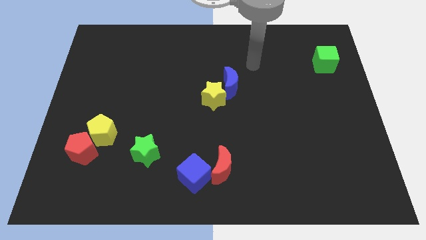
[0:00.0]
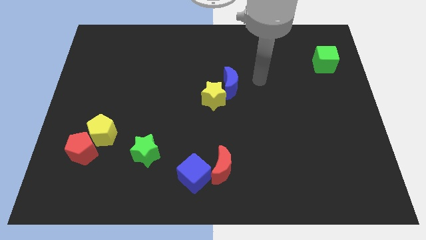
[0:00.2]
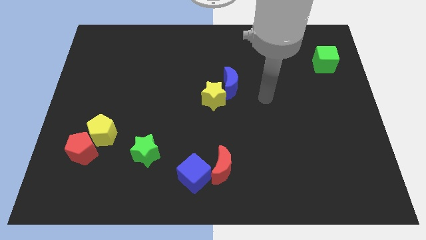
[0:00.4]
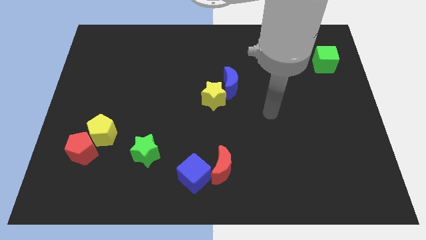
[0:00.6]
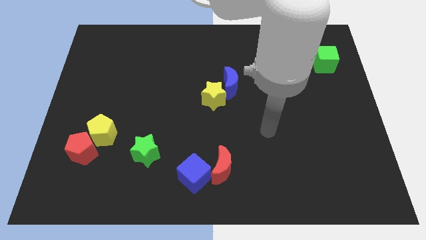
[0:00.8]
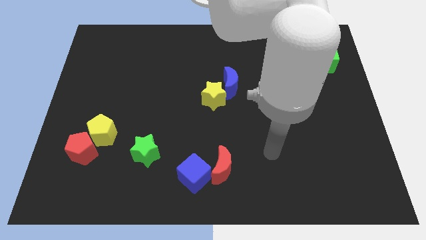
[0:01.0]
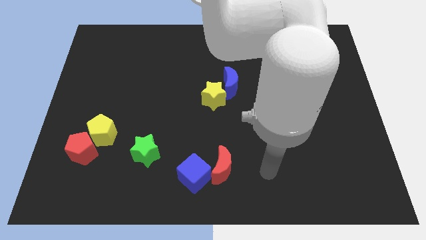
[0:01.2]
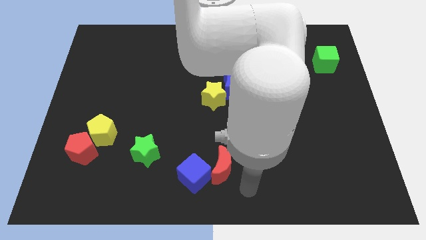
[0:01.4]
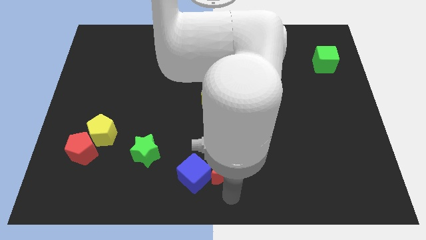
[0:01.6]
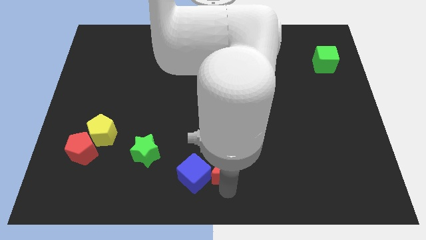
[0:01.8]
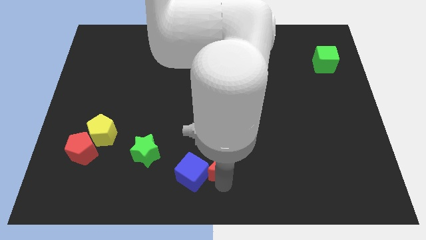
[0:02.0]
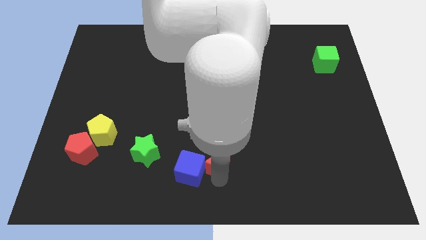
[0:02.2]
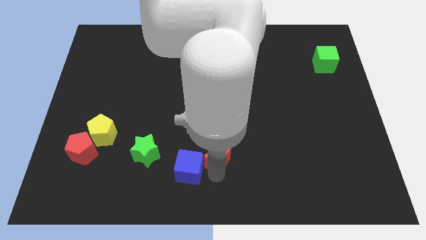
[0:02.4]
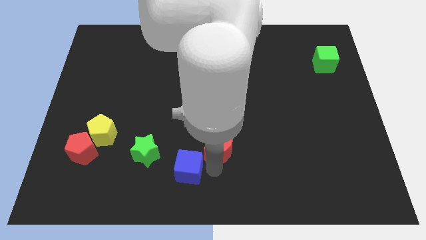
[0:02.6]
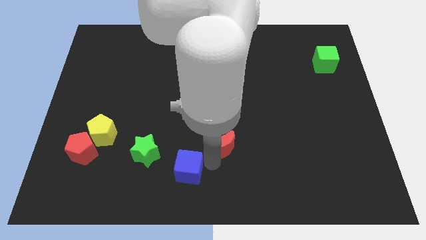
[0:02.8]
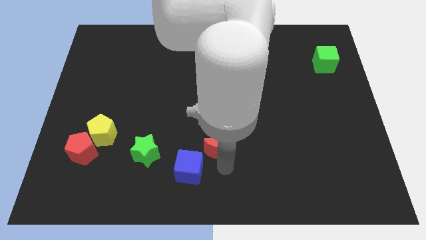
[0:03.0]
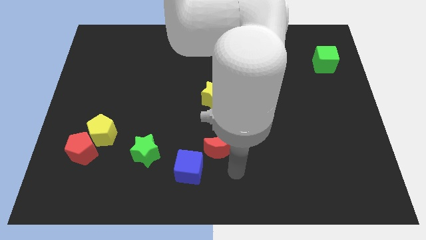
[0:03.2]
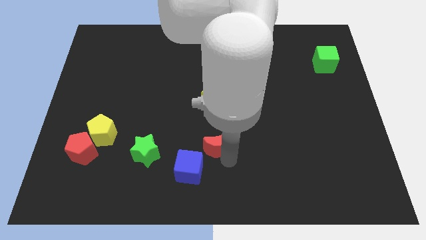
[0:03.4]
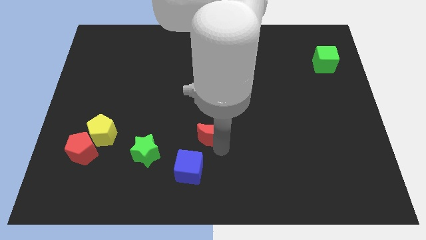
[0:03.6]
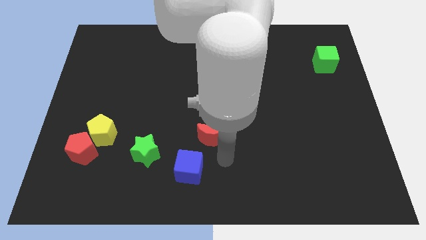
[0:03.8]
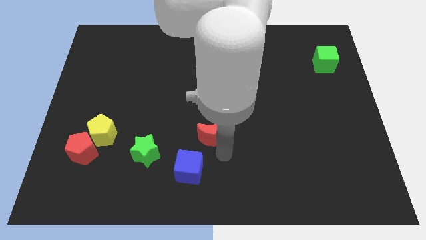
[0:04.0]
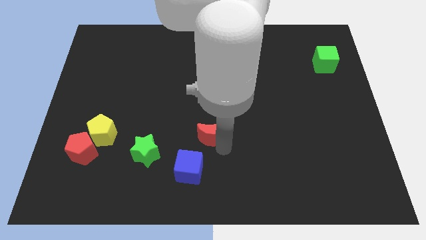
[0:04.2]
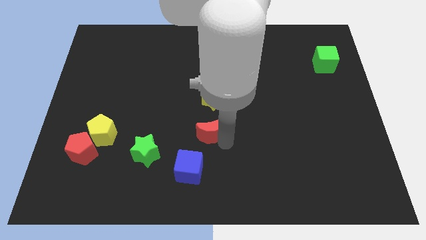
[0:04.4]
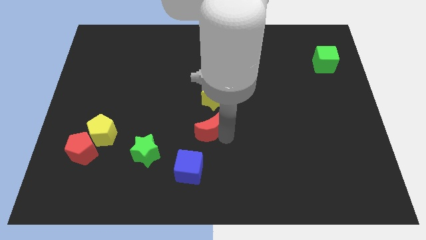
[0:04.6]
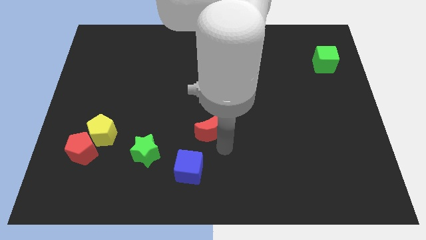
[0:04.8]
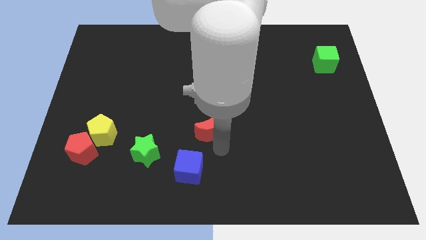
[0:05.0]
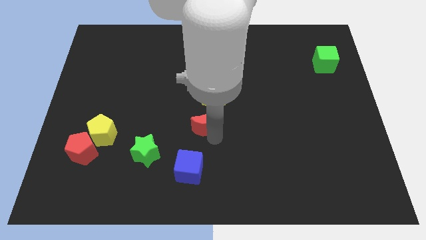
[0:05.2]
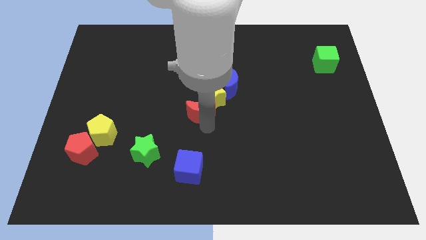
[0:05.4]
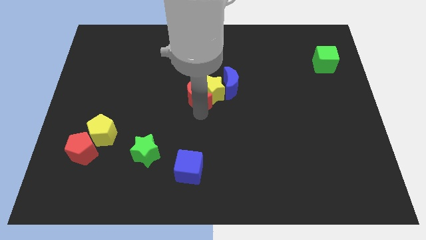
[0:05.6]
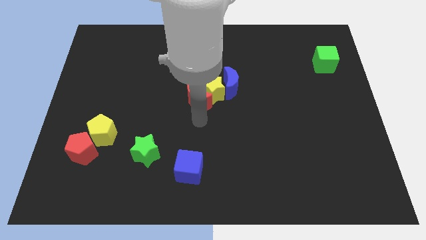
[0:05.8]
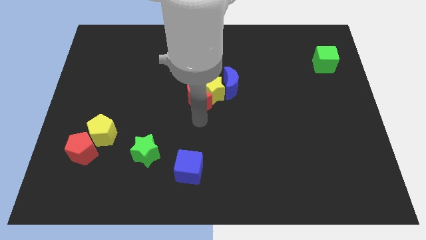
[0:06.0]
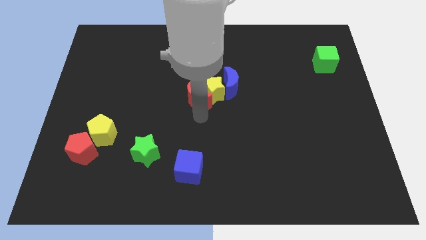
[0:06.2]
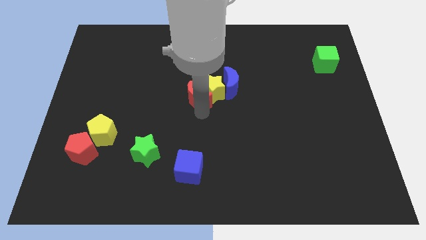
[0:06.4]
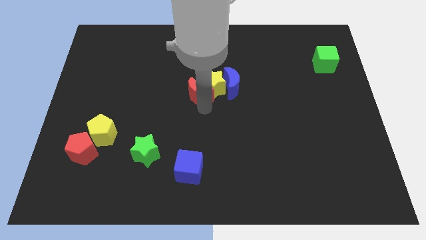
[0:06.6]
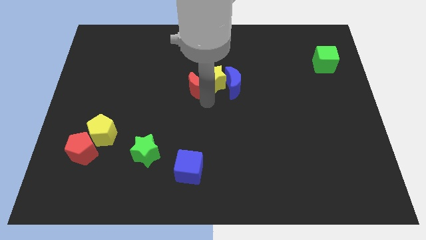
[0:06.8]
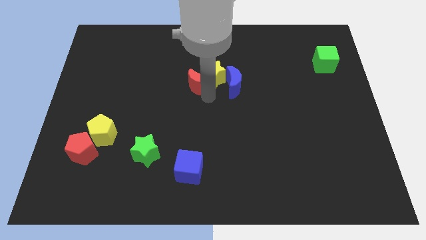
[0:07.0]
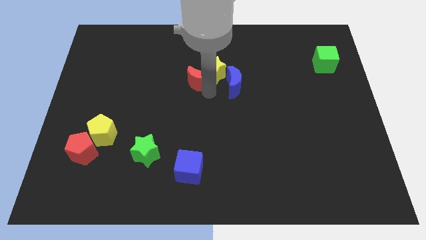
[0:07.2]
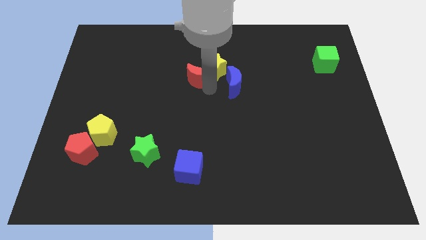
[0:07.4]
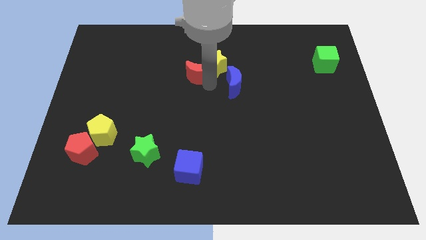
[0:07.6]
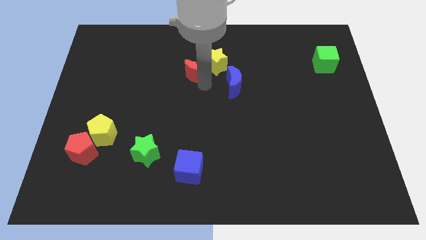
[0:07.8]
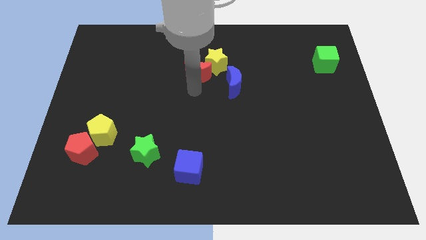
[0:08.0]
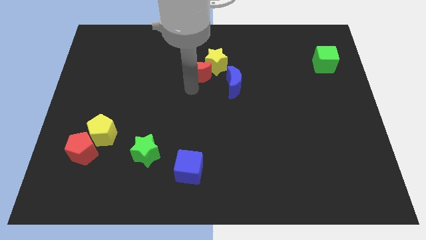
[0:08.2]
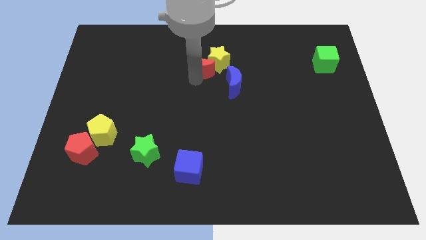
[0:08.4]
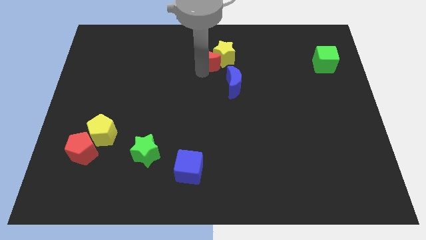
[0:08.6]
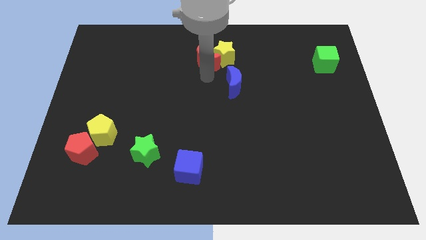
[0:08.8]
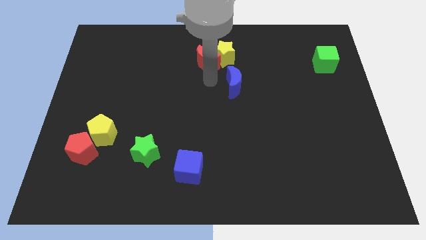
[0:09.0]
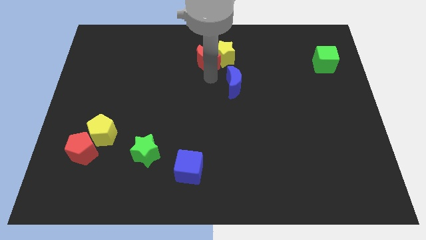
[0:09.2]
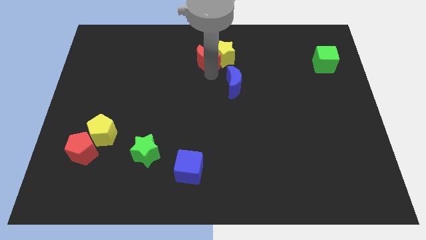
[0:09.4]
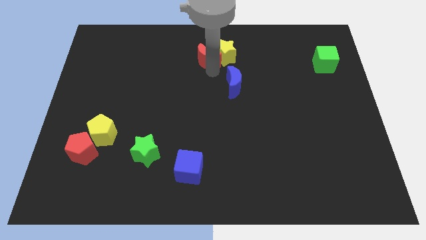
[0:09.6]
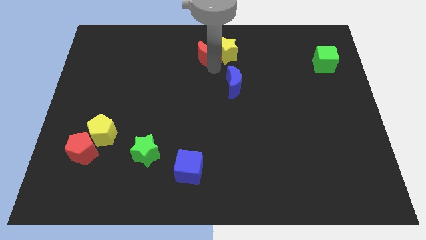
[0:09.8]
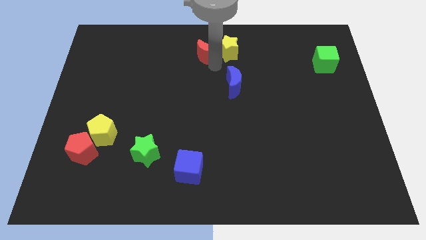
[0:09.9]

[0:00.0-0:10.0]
move the red moon to the towards your base
